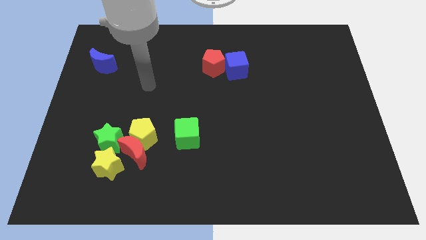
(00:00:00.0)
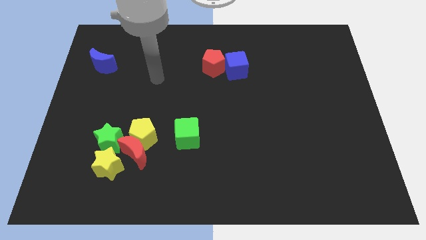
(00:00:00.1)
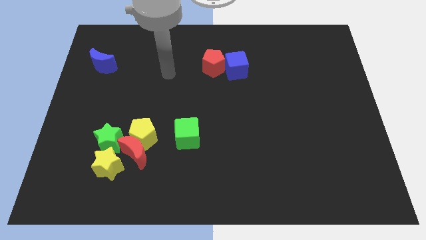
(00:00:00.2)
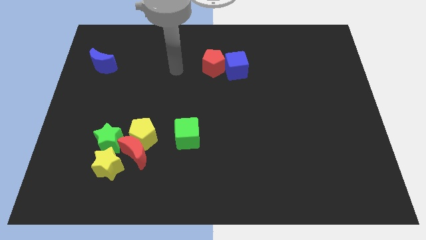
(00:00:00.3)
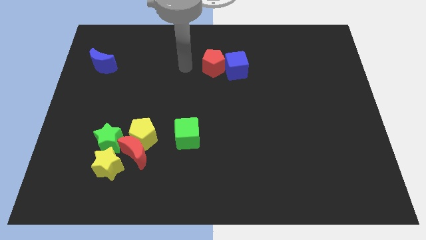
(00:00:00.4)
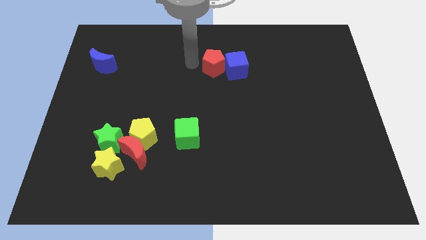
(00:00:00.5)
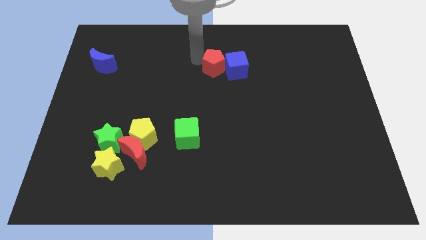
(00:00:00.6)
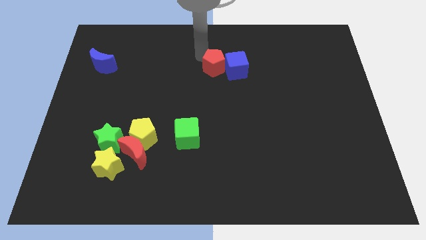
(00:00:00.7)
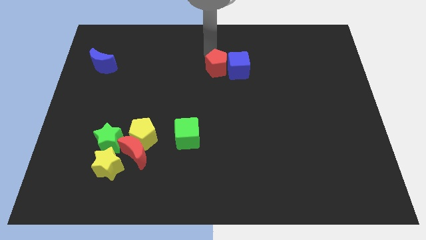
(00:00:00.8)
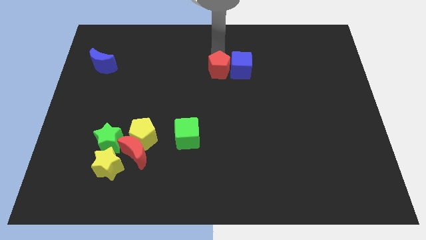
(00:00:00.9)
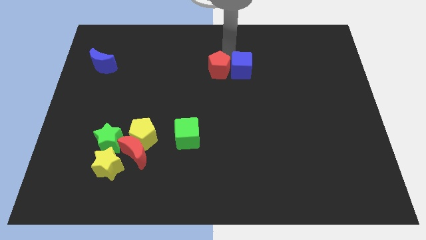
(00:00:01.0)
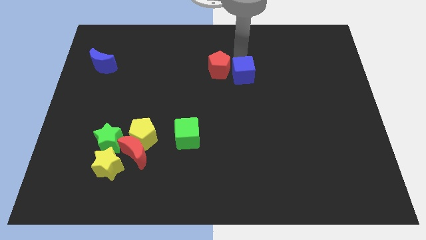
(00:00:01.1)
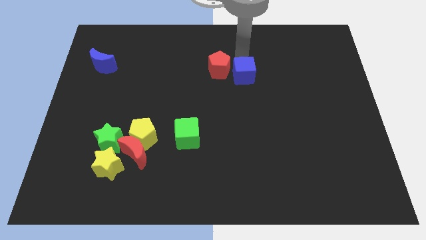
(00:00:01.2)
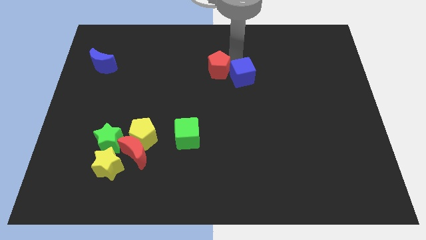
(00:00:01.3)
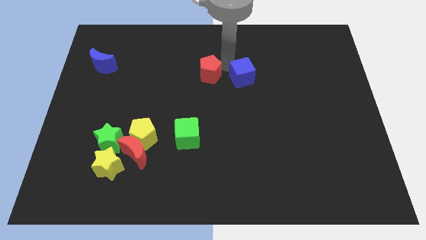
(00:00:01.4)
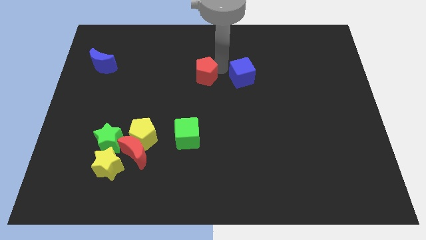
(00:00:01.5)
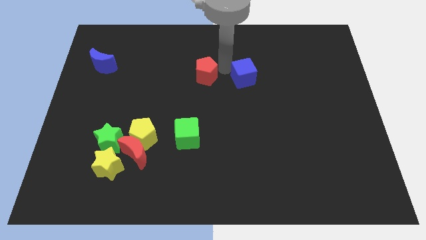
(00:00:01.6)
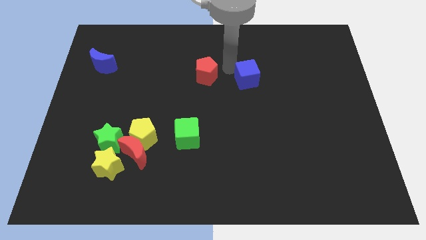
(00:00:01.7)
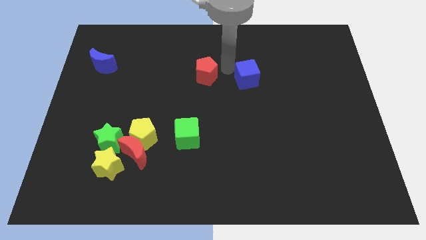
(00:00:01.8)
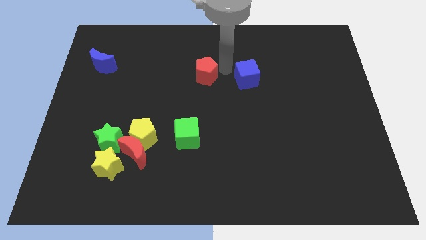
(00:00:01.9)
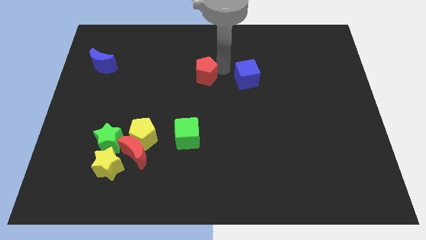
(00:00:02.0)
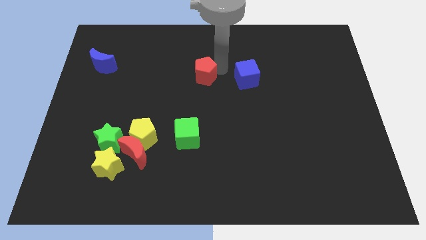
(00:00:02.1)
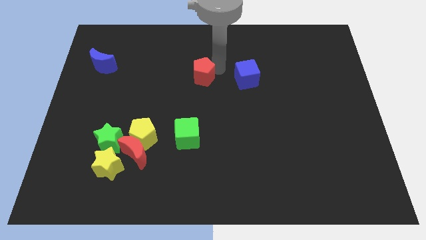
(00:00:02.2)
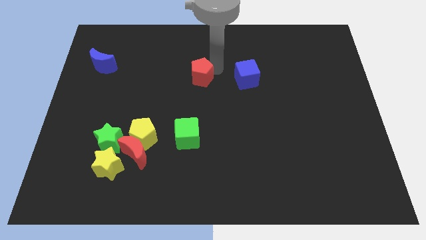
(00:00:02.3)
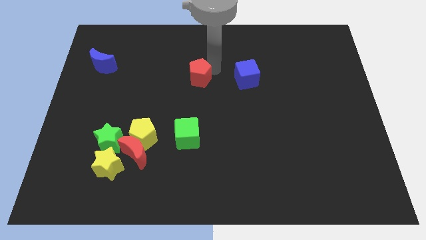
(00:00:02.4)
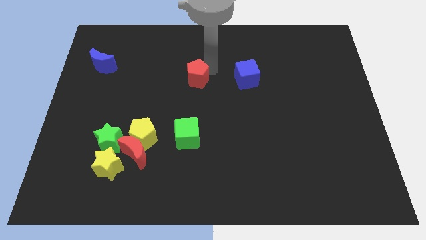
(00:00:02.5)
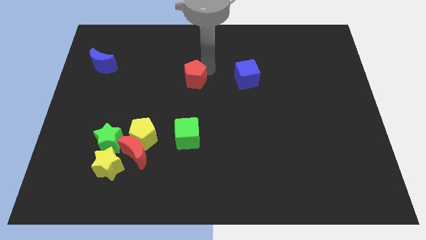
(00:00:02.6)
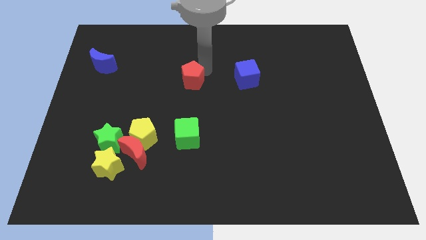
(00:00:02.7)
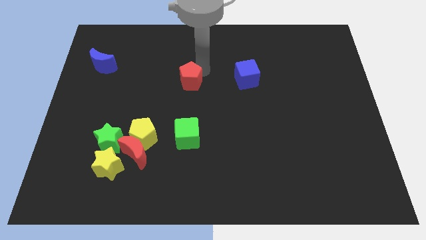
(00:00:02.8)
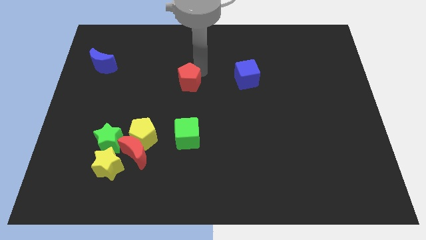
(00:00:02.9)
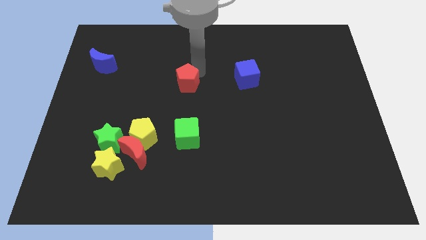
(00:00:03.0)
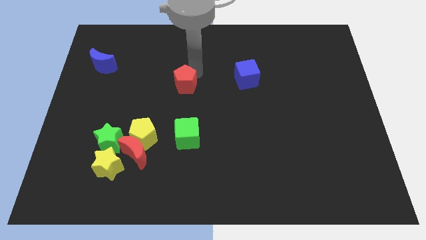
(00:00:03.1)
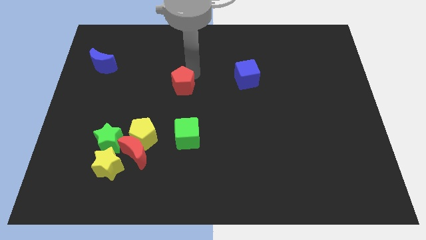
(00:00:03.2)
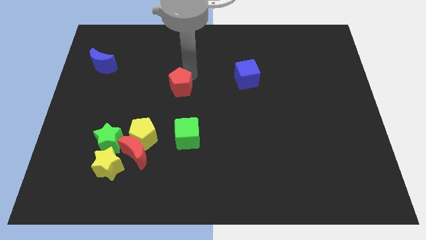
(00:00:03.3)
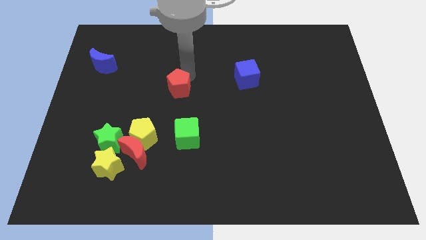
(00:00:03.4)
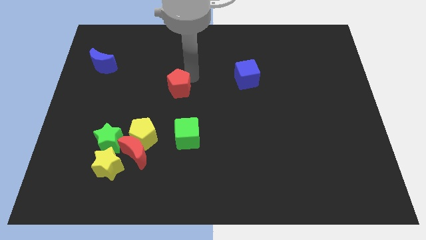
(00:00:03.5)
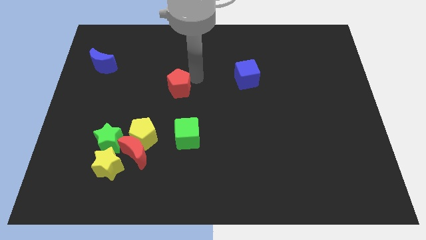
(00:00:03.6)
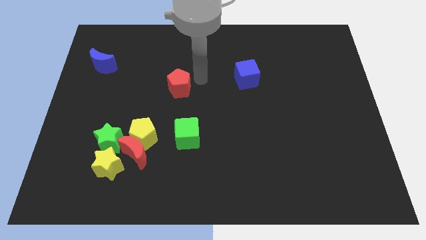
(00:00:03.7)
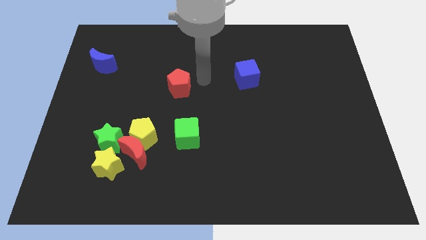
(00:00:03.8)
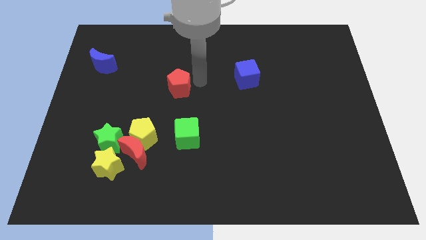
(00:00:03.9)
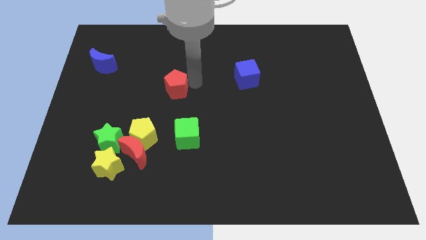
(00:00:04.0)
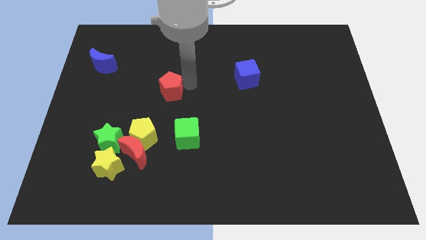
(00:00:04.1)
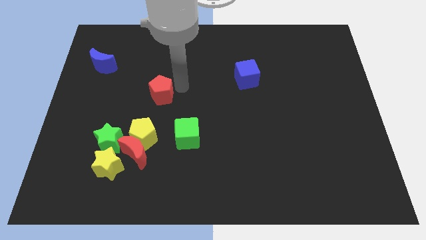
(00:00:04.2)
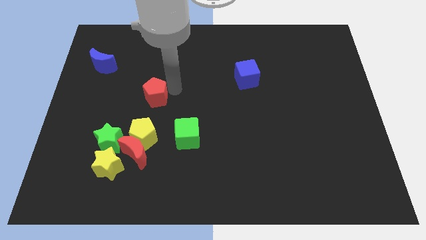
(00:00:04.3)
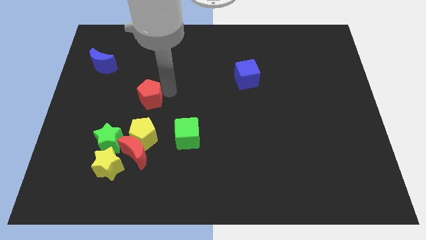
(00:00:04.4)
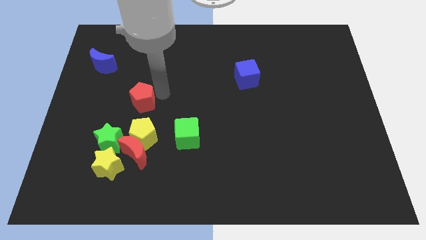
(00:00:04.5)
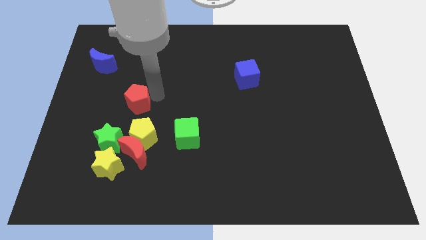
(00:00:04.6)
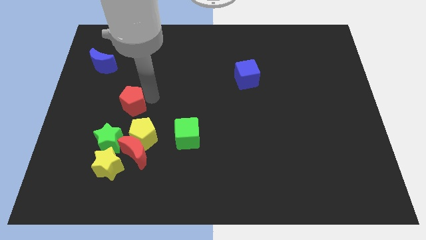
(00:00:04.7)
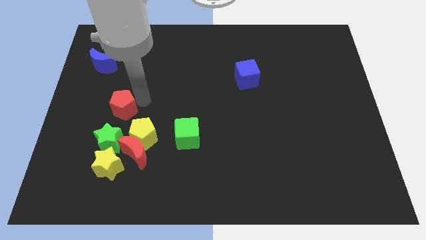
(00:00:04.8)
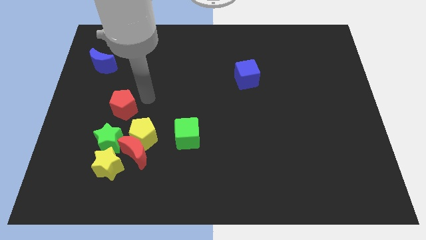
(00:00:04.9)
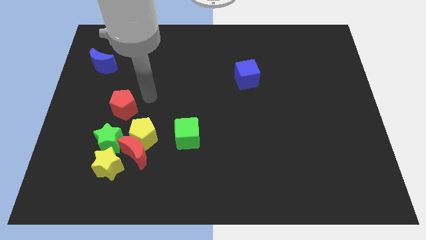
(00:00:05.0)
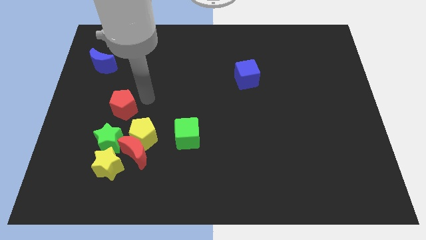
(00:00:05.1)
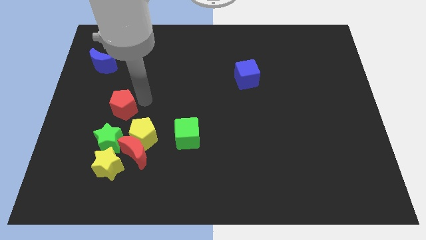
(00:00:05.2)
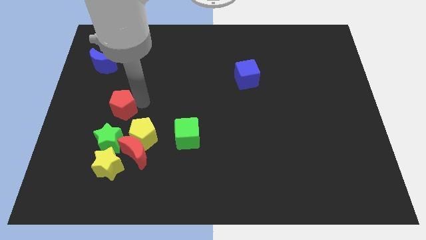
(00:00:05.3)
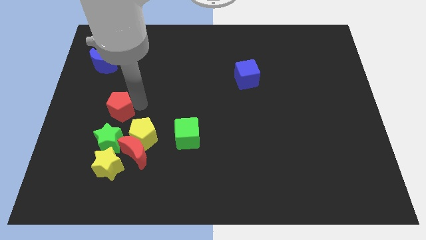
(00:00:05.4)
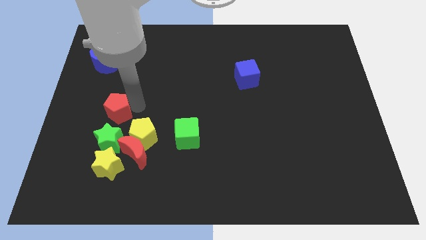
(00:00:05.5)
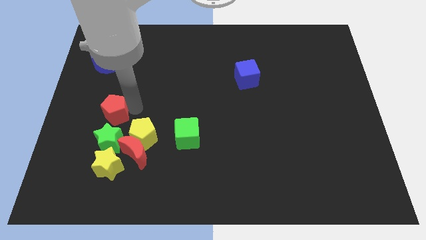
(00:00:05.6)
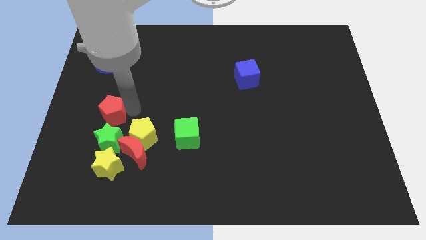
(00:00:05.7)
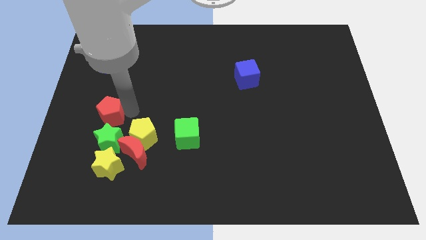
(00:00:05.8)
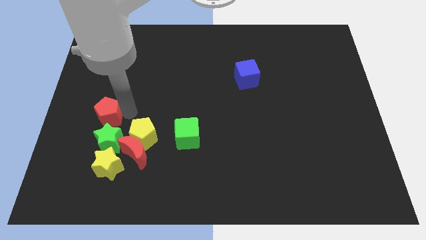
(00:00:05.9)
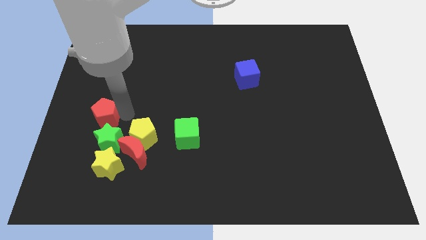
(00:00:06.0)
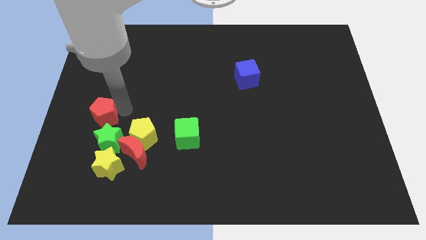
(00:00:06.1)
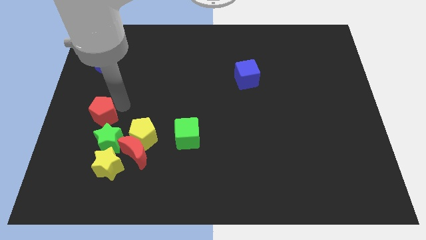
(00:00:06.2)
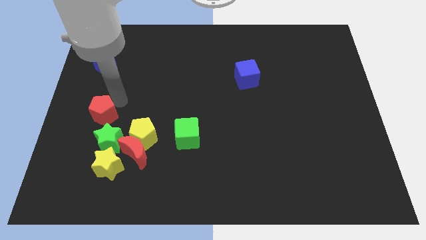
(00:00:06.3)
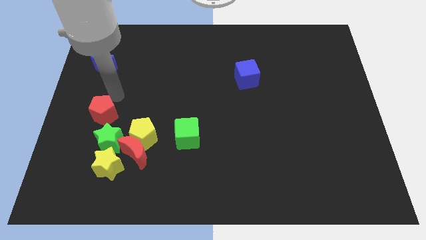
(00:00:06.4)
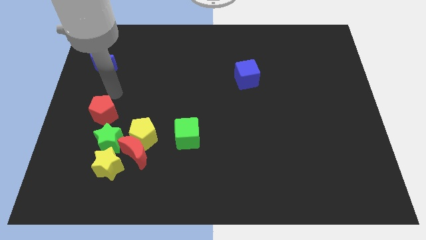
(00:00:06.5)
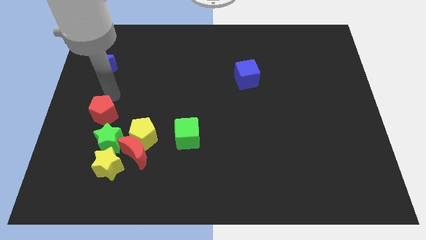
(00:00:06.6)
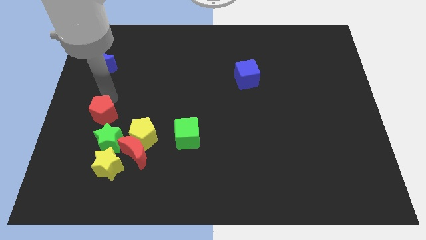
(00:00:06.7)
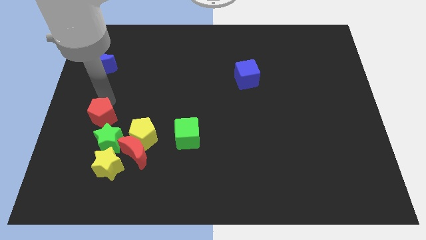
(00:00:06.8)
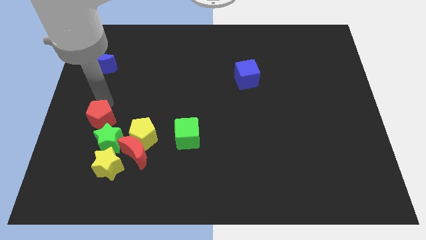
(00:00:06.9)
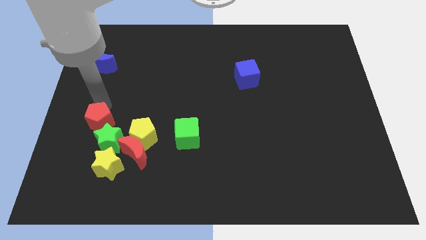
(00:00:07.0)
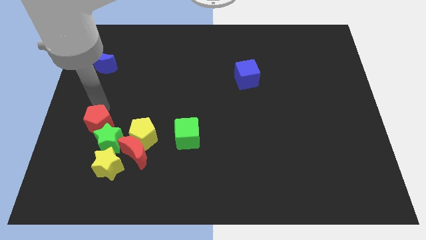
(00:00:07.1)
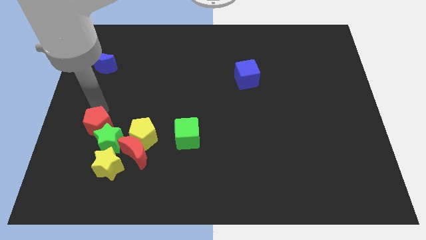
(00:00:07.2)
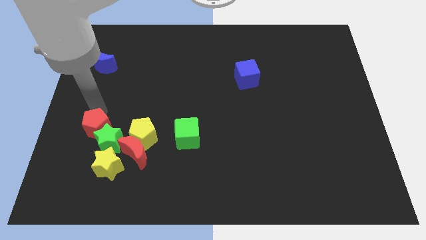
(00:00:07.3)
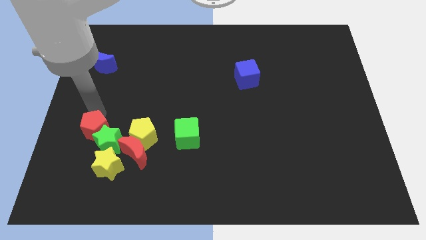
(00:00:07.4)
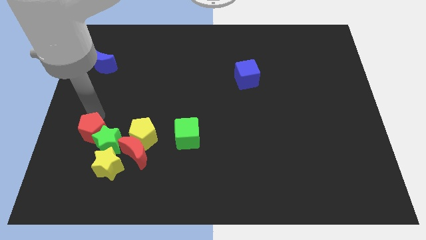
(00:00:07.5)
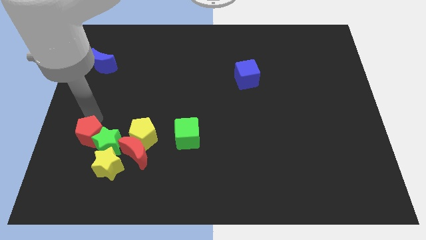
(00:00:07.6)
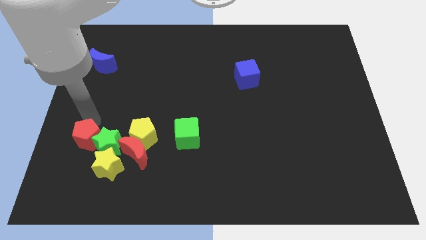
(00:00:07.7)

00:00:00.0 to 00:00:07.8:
slide the red pentagon to the bottom left of the green star

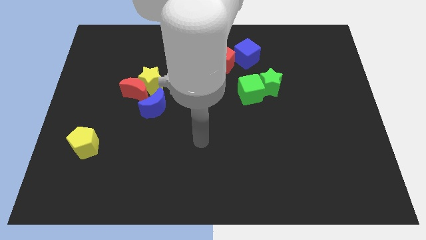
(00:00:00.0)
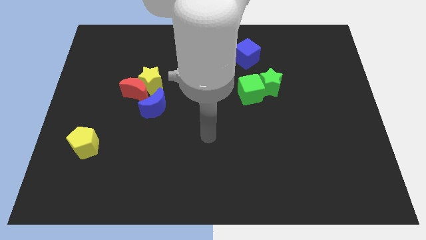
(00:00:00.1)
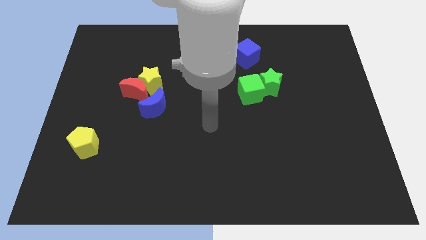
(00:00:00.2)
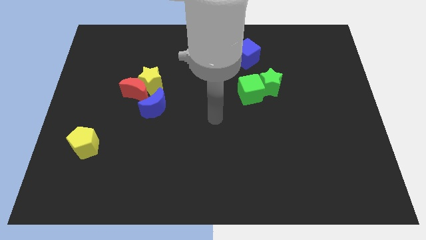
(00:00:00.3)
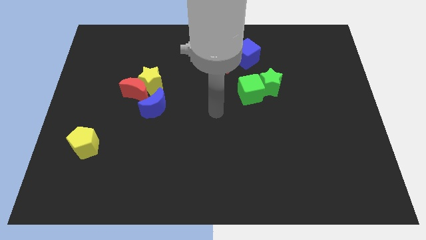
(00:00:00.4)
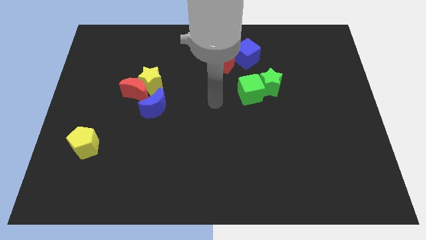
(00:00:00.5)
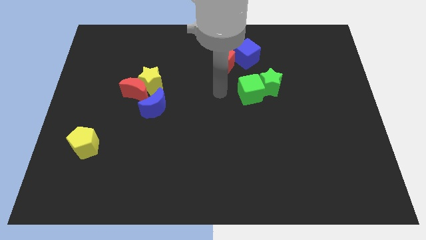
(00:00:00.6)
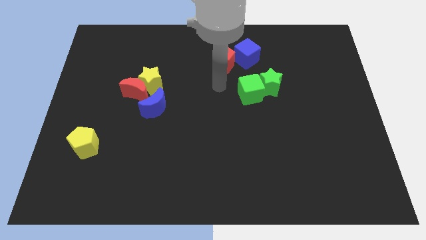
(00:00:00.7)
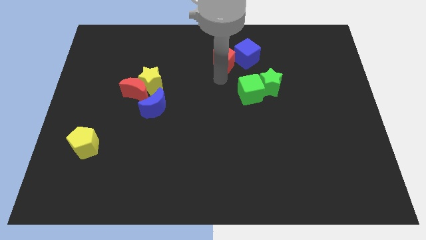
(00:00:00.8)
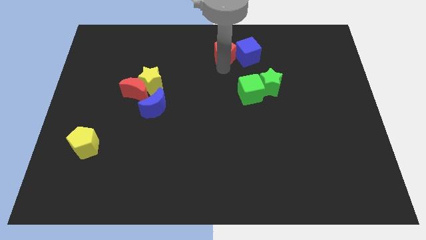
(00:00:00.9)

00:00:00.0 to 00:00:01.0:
move the blue cube to the top side of the green star
